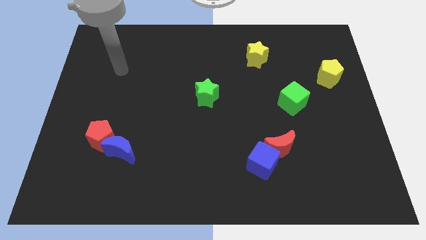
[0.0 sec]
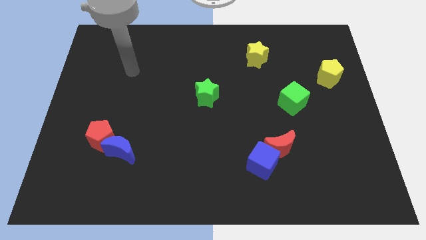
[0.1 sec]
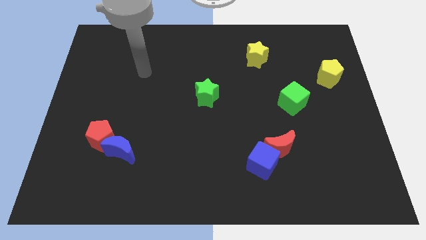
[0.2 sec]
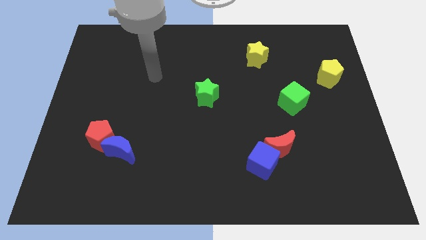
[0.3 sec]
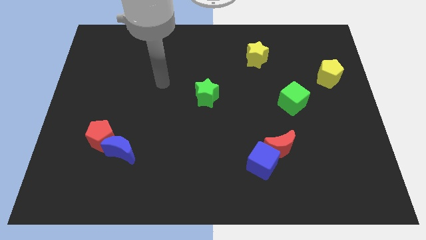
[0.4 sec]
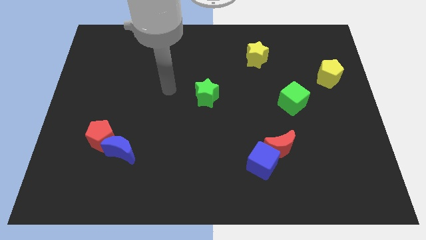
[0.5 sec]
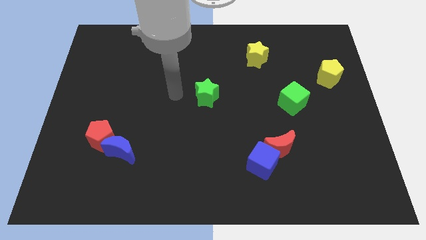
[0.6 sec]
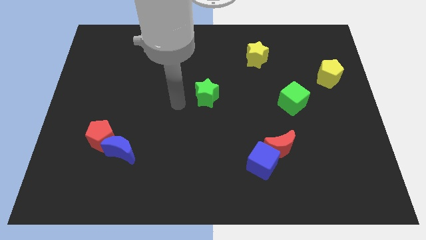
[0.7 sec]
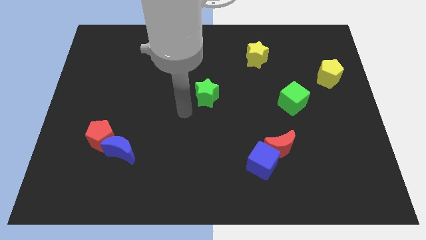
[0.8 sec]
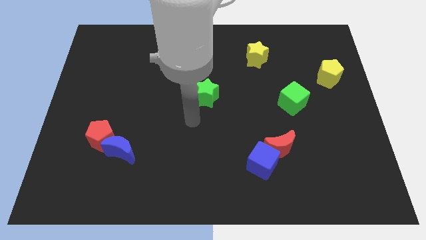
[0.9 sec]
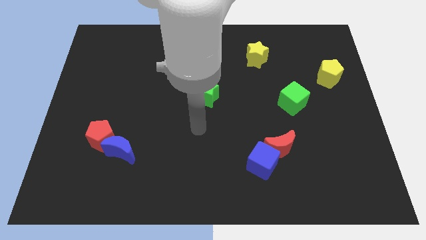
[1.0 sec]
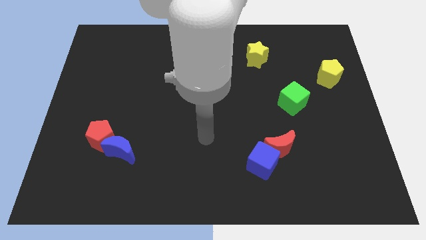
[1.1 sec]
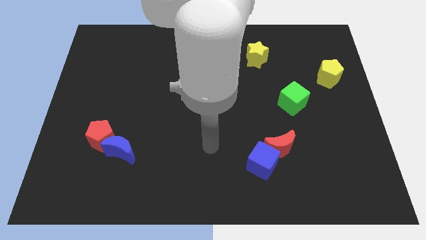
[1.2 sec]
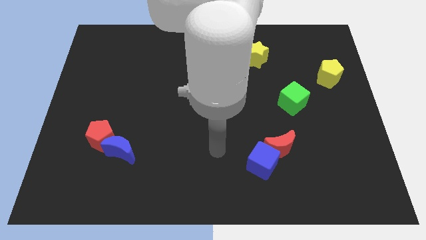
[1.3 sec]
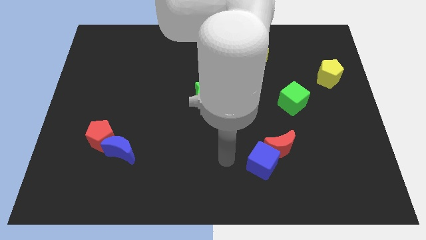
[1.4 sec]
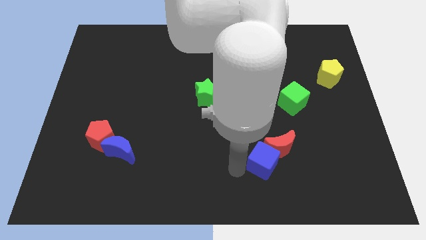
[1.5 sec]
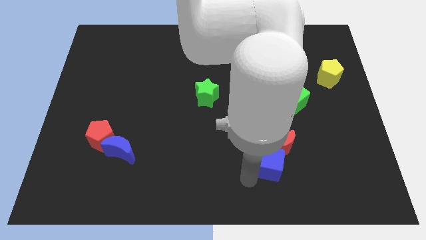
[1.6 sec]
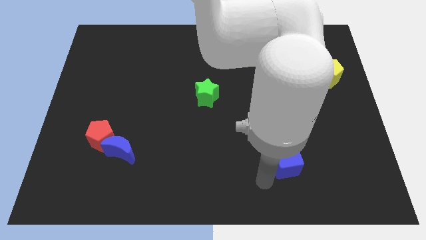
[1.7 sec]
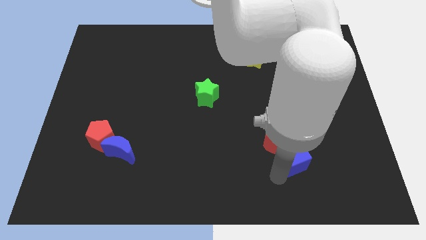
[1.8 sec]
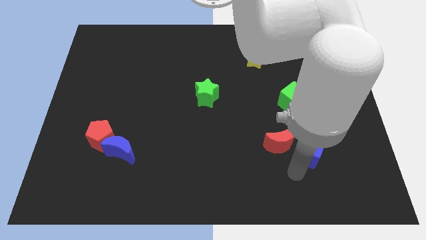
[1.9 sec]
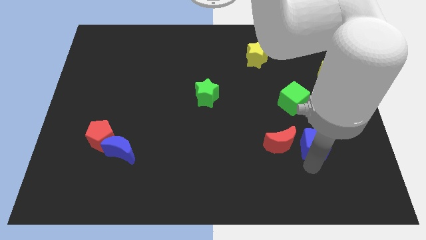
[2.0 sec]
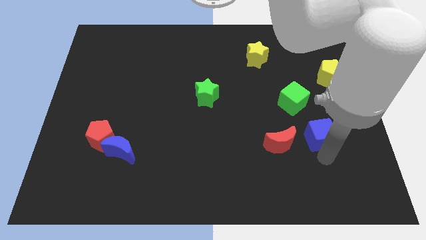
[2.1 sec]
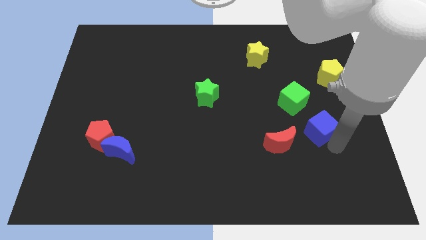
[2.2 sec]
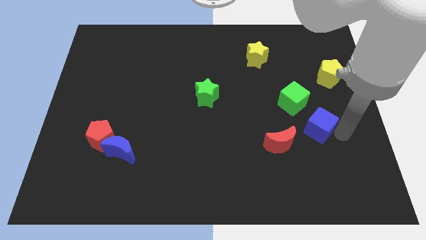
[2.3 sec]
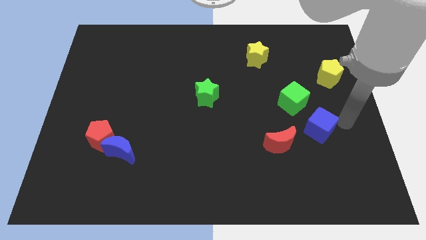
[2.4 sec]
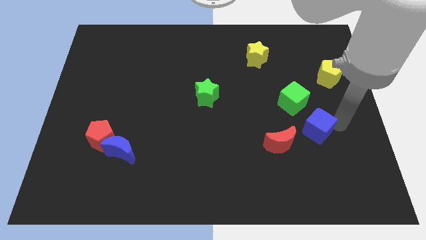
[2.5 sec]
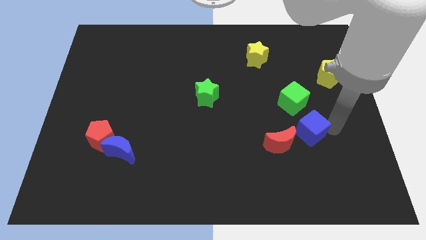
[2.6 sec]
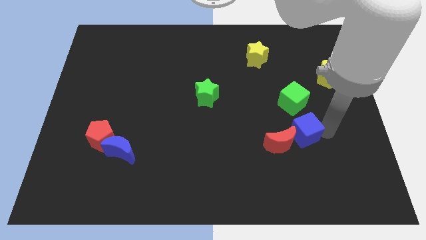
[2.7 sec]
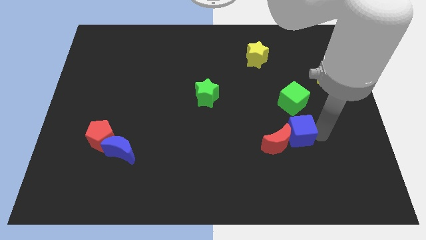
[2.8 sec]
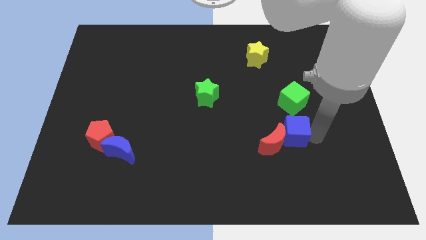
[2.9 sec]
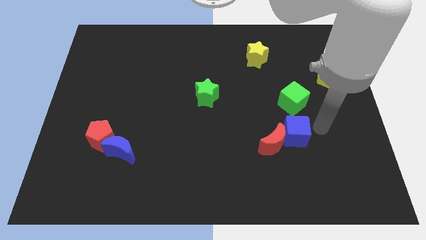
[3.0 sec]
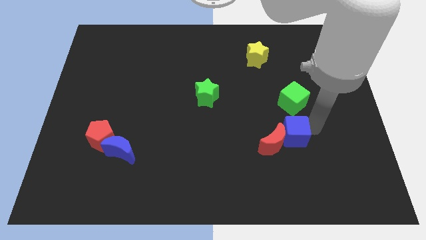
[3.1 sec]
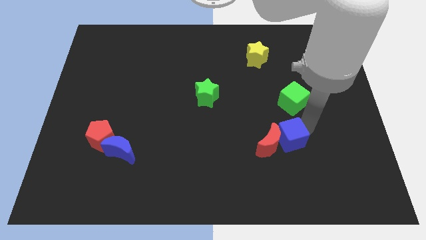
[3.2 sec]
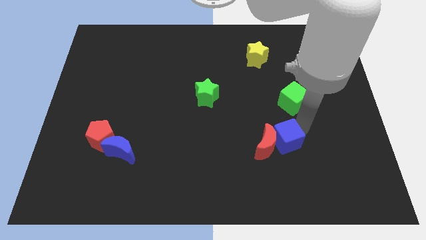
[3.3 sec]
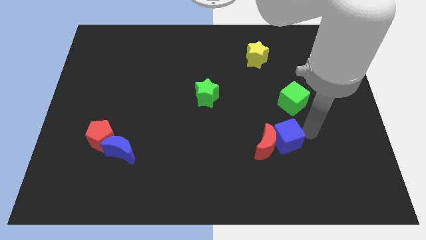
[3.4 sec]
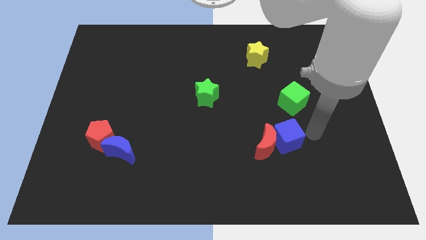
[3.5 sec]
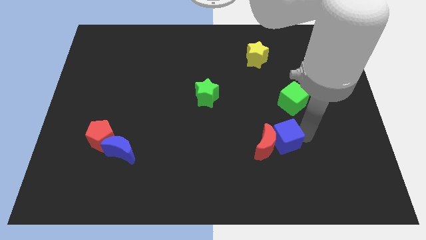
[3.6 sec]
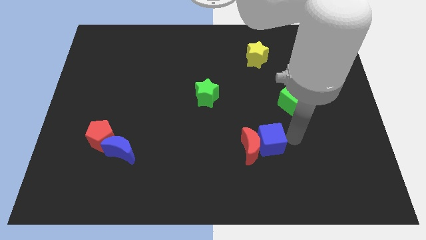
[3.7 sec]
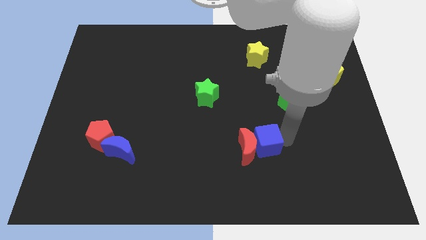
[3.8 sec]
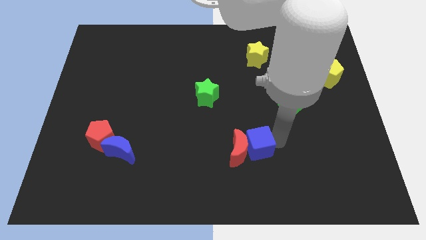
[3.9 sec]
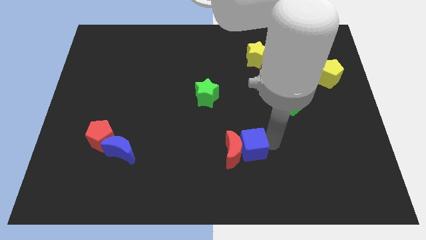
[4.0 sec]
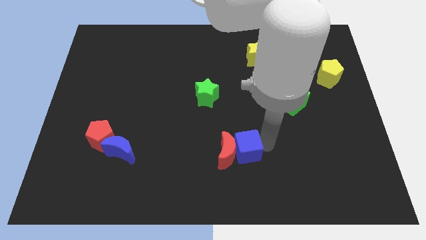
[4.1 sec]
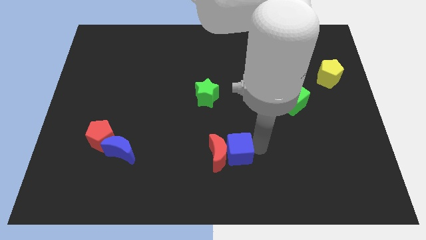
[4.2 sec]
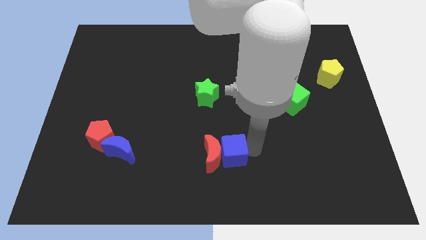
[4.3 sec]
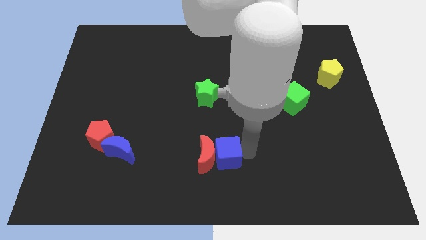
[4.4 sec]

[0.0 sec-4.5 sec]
slightly push the blue cube to the left

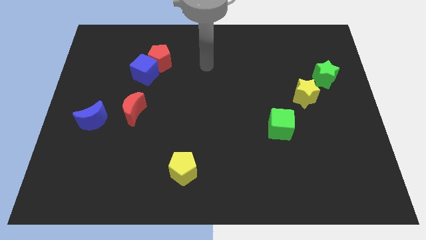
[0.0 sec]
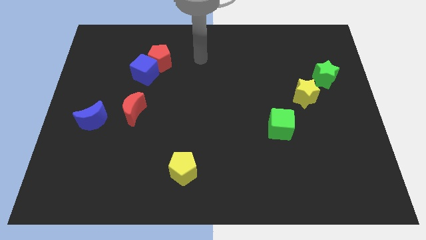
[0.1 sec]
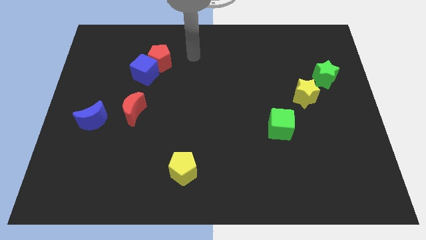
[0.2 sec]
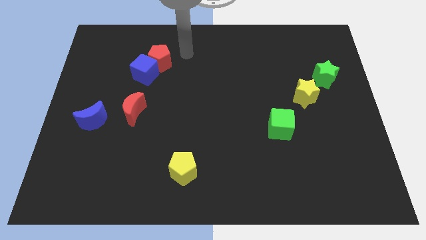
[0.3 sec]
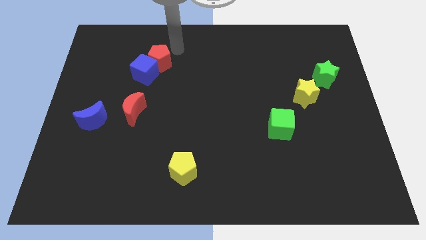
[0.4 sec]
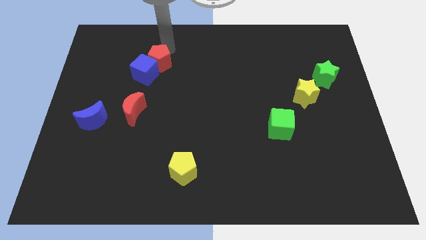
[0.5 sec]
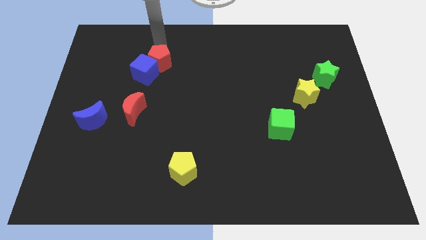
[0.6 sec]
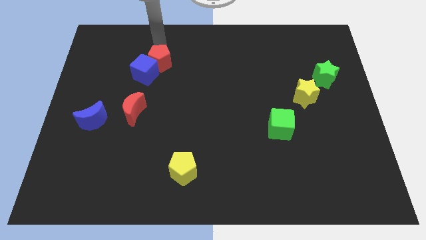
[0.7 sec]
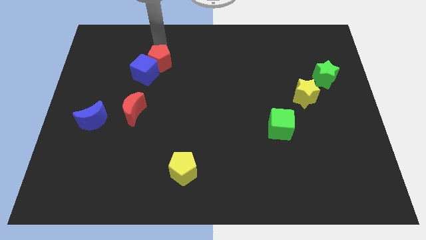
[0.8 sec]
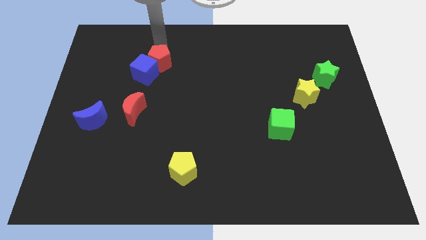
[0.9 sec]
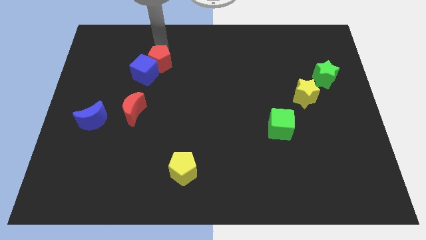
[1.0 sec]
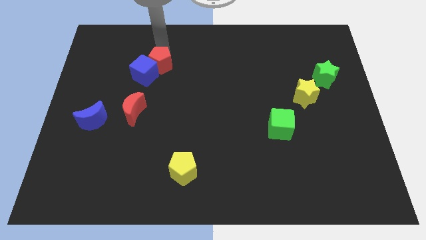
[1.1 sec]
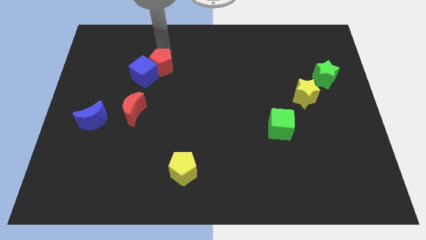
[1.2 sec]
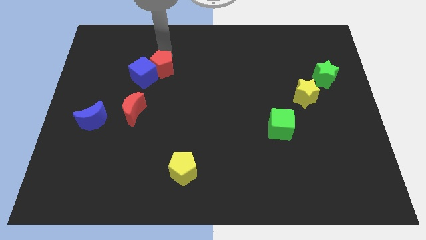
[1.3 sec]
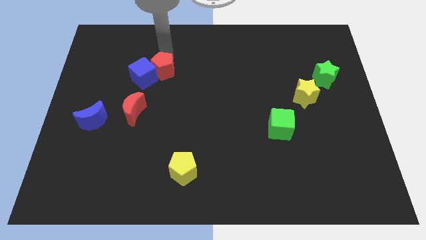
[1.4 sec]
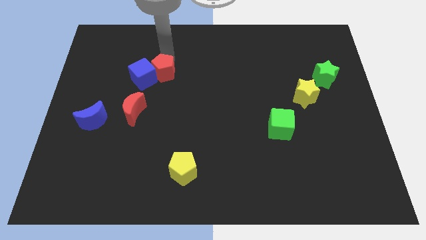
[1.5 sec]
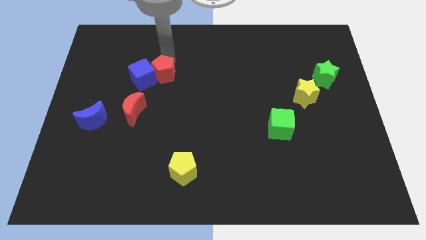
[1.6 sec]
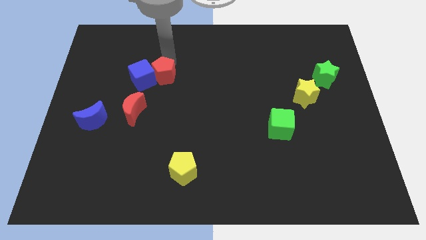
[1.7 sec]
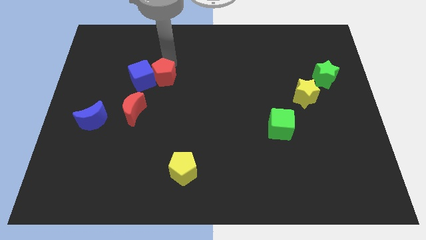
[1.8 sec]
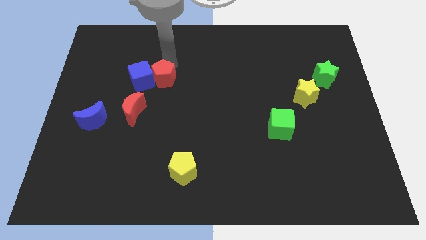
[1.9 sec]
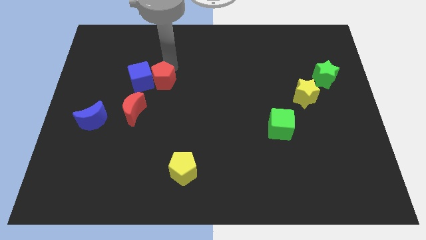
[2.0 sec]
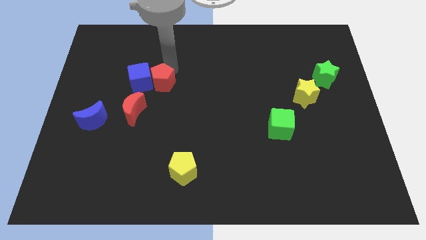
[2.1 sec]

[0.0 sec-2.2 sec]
slide the red pentagon a bit downwards

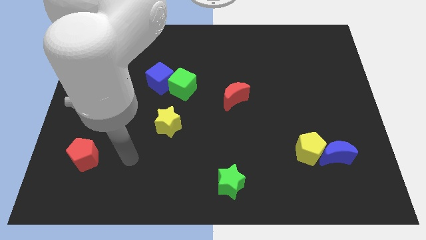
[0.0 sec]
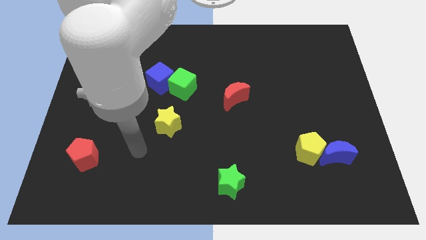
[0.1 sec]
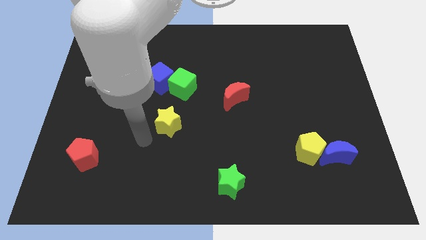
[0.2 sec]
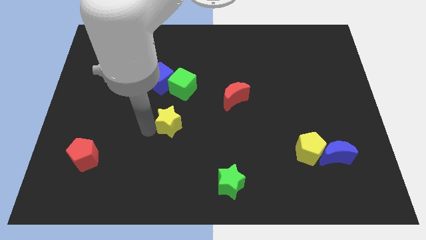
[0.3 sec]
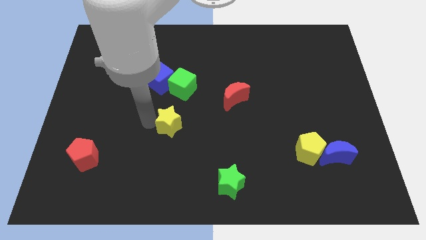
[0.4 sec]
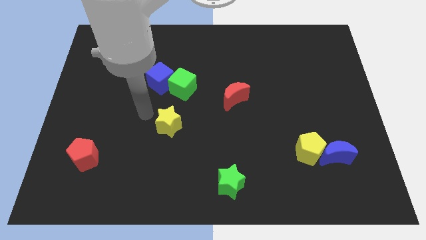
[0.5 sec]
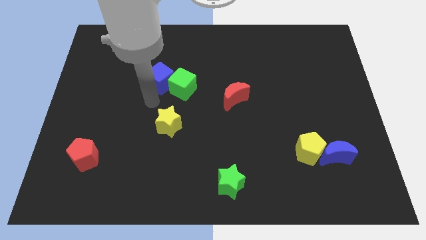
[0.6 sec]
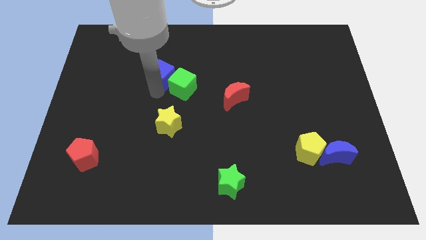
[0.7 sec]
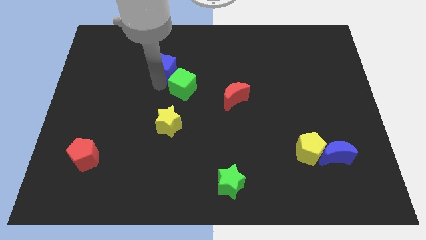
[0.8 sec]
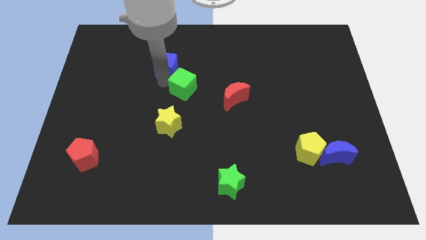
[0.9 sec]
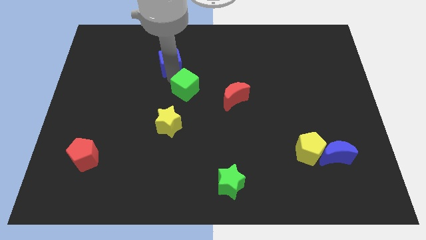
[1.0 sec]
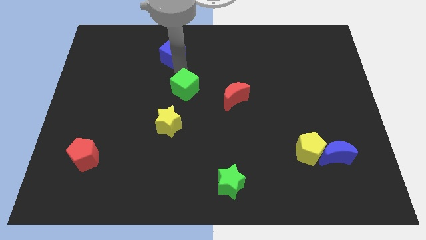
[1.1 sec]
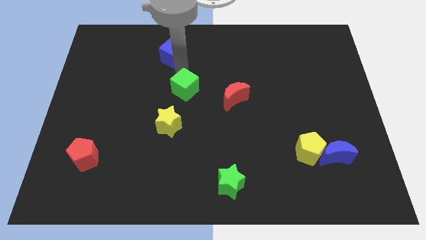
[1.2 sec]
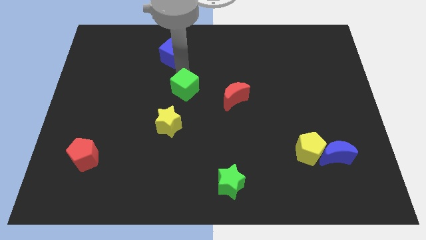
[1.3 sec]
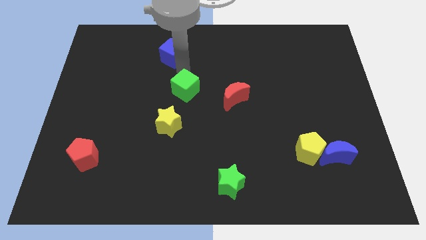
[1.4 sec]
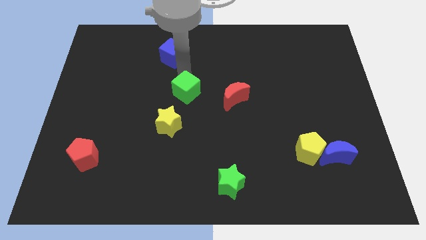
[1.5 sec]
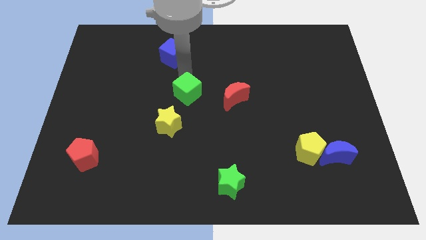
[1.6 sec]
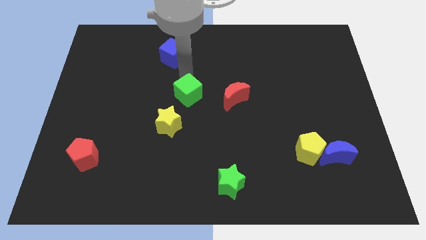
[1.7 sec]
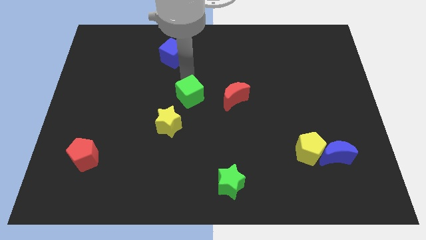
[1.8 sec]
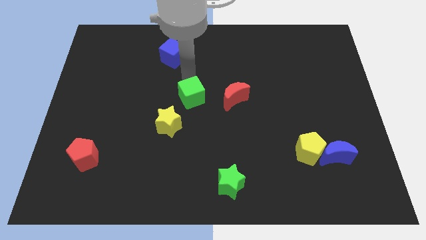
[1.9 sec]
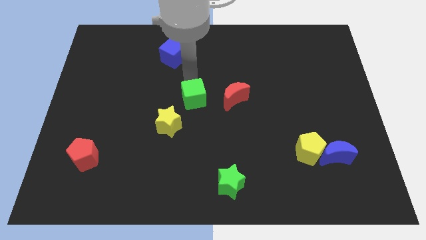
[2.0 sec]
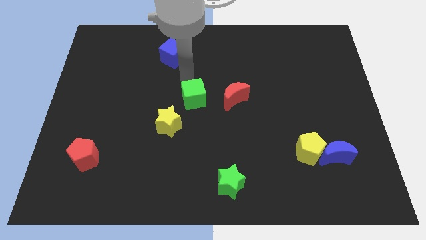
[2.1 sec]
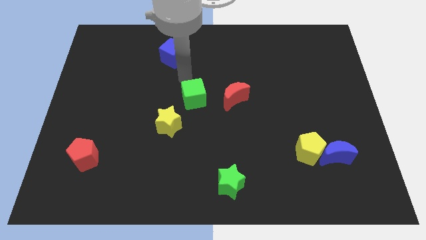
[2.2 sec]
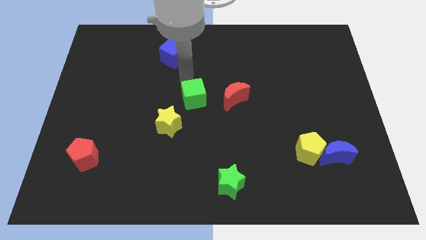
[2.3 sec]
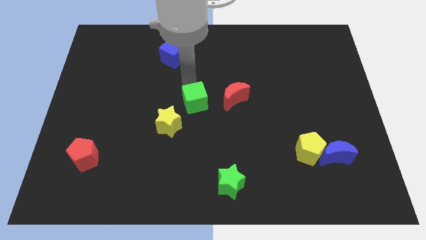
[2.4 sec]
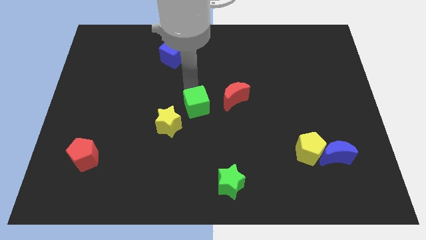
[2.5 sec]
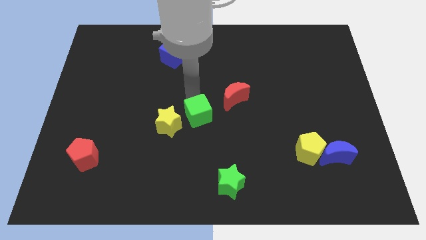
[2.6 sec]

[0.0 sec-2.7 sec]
push the green cube somewhat downwards and then right
